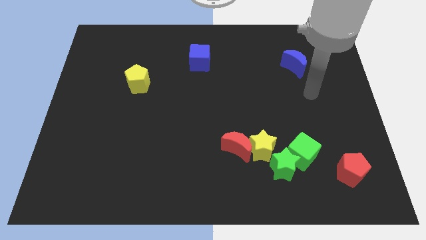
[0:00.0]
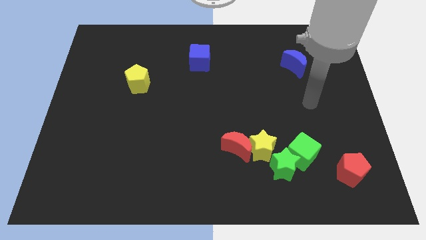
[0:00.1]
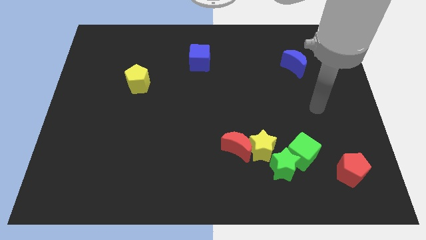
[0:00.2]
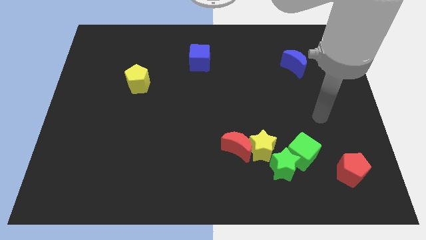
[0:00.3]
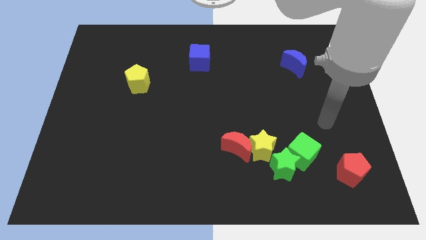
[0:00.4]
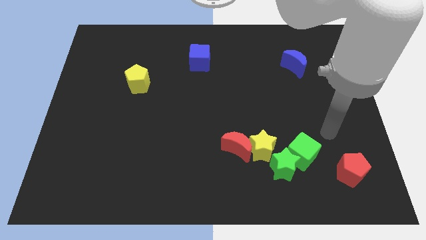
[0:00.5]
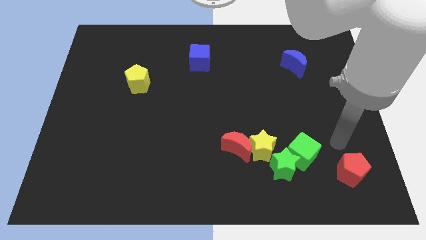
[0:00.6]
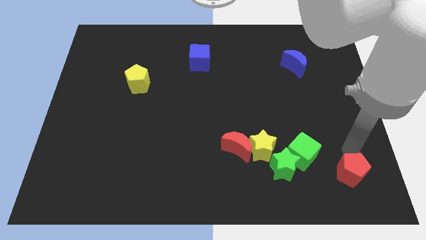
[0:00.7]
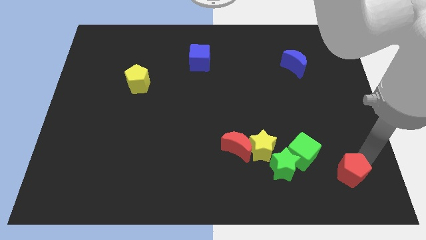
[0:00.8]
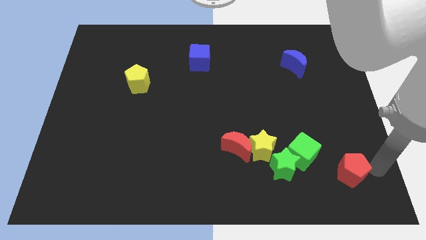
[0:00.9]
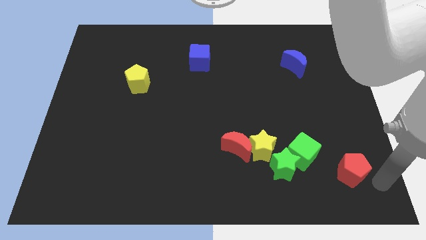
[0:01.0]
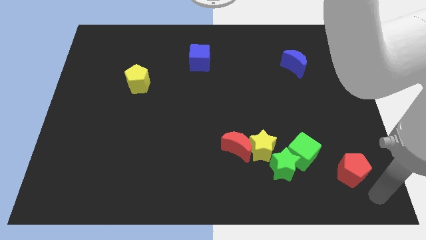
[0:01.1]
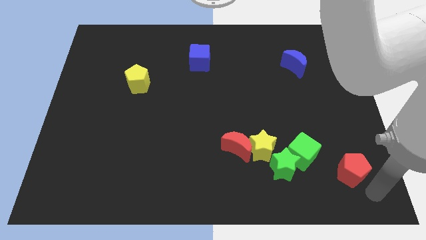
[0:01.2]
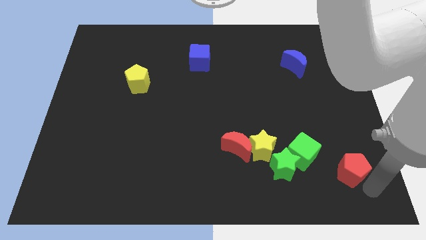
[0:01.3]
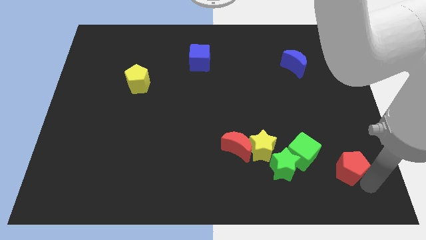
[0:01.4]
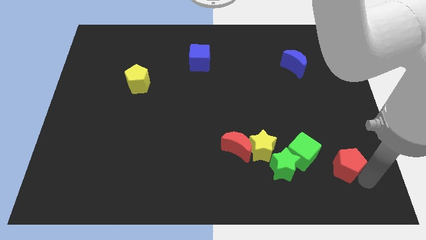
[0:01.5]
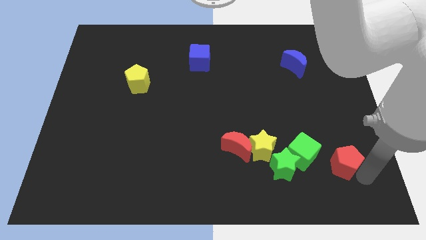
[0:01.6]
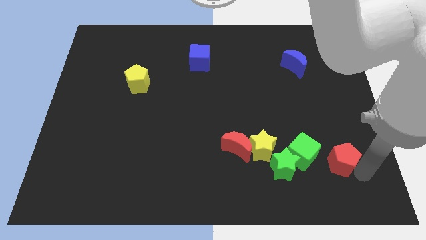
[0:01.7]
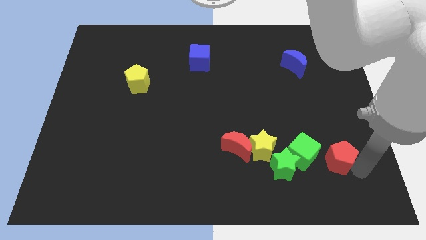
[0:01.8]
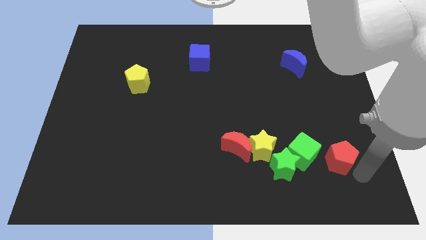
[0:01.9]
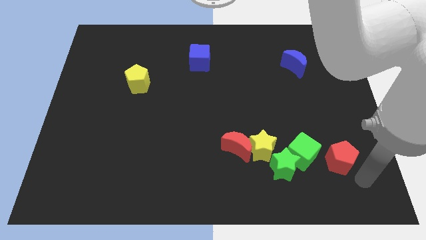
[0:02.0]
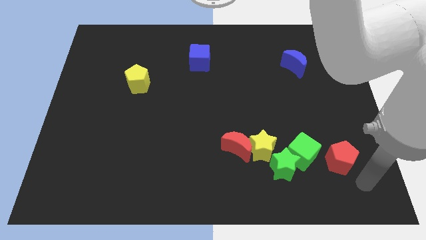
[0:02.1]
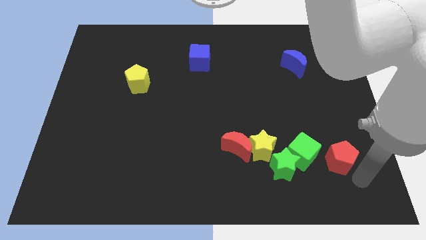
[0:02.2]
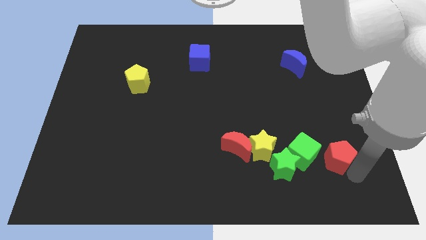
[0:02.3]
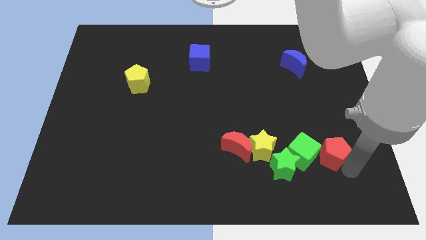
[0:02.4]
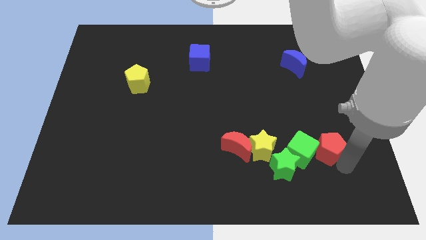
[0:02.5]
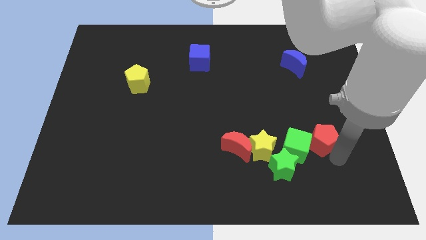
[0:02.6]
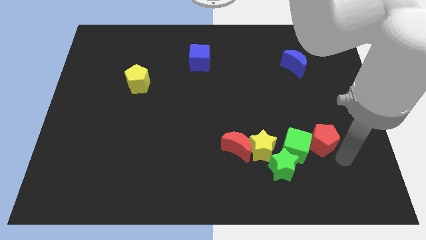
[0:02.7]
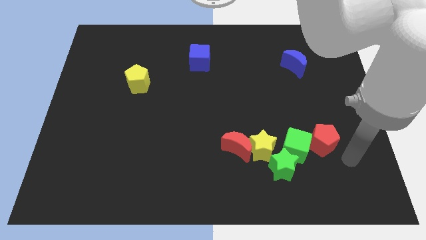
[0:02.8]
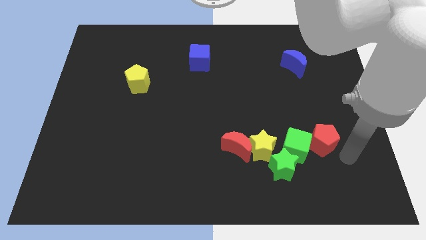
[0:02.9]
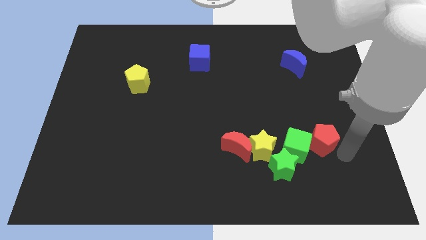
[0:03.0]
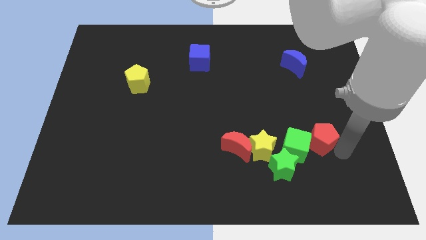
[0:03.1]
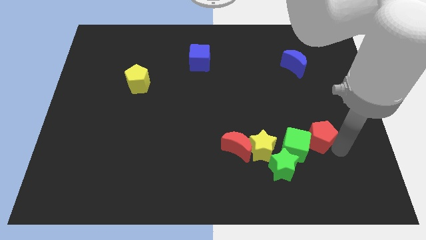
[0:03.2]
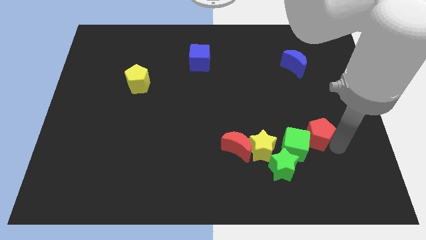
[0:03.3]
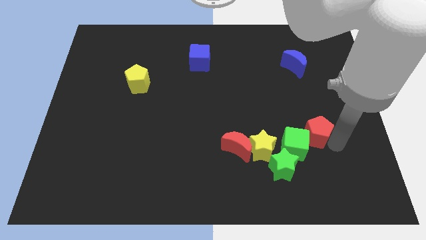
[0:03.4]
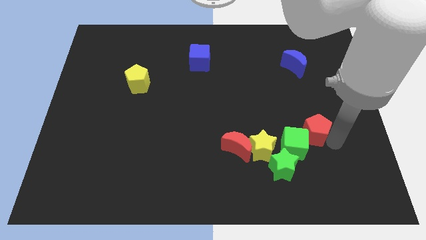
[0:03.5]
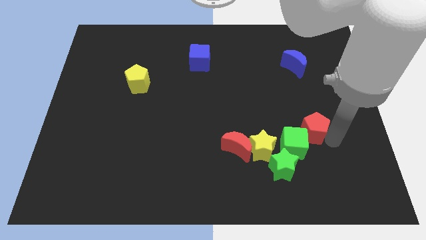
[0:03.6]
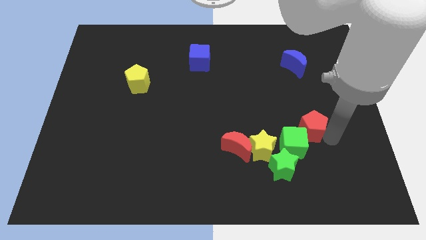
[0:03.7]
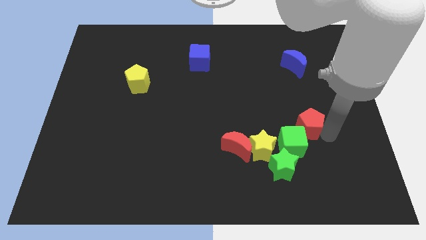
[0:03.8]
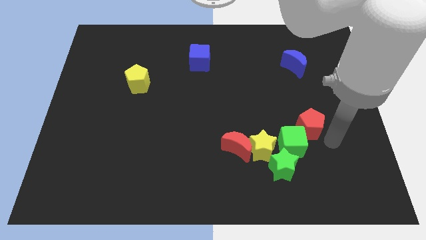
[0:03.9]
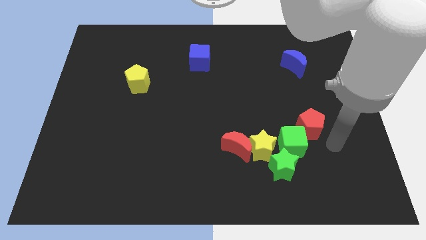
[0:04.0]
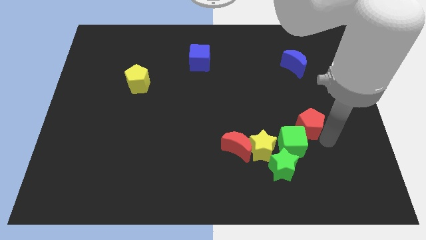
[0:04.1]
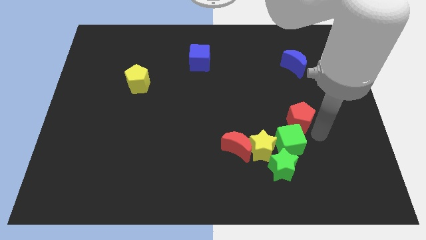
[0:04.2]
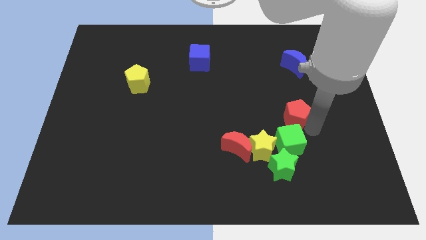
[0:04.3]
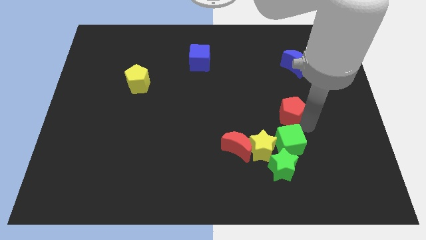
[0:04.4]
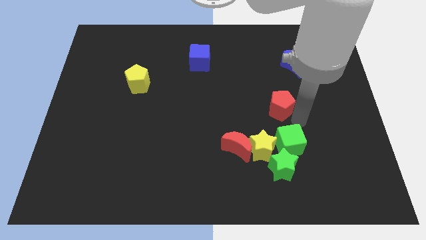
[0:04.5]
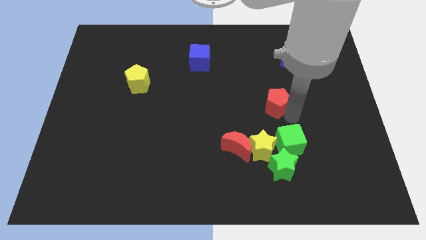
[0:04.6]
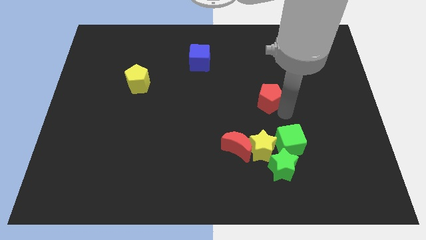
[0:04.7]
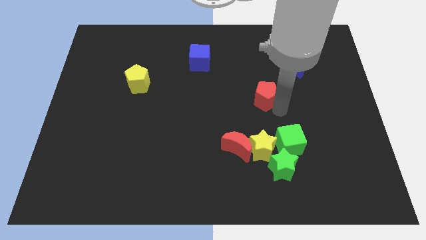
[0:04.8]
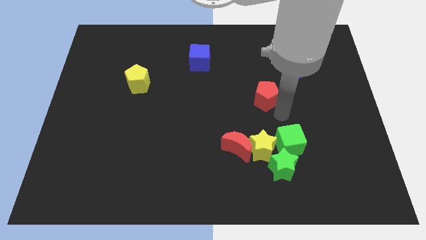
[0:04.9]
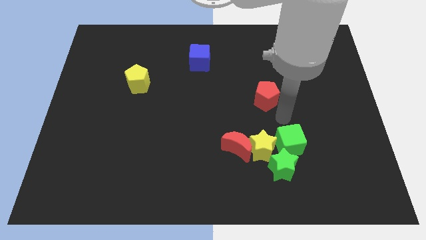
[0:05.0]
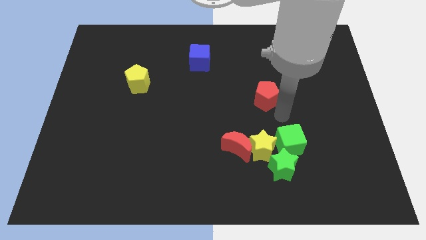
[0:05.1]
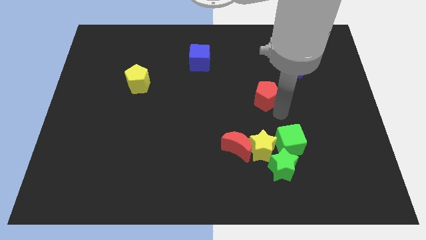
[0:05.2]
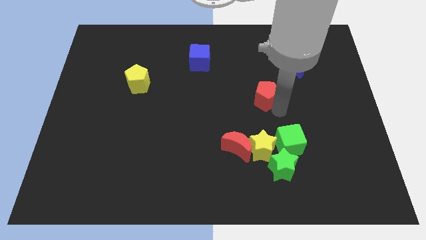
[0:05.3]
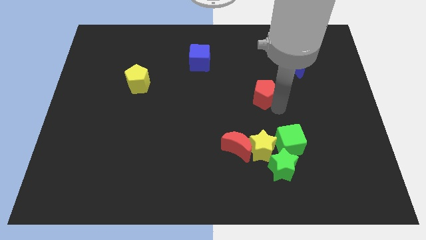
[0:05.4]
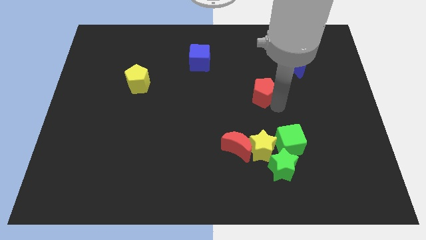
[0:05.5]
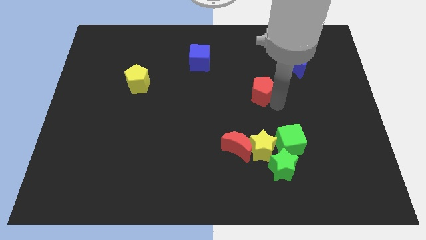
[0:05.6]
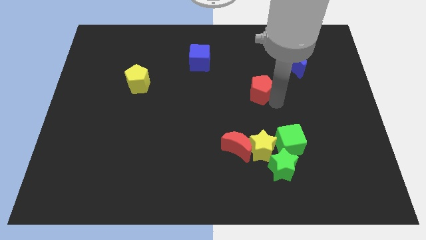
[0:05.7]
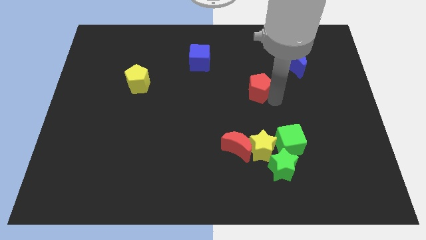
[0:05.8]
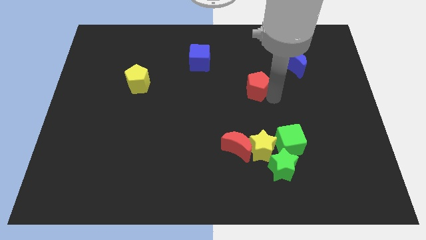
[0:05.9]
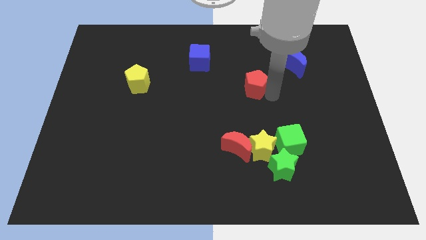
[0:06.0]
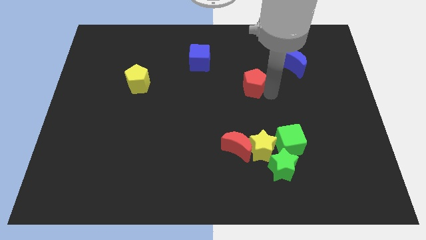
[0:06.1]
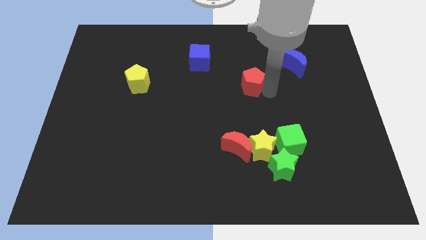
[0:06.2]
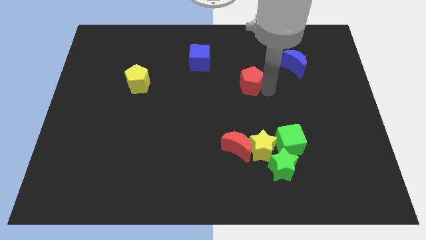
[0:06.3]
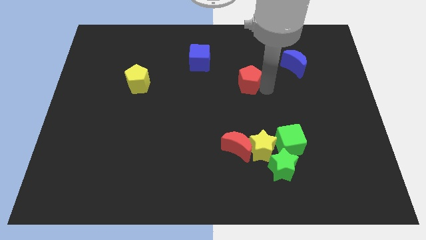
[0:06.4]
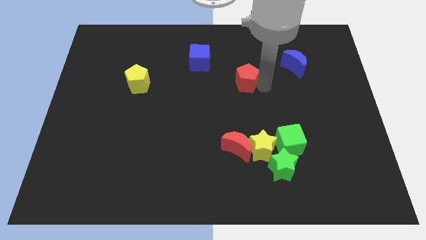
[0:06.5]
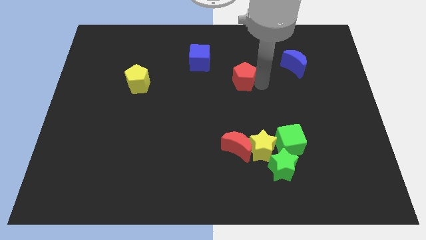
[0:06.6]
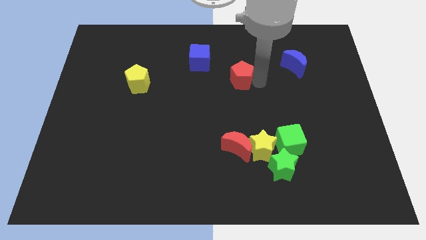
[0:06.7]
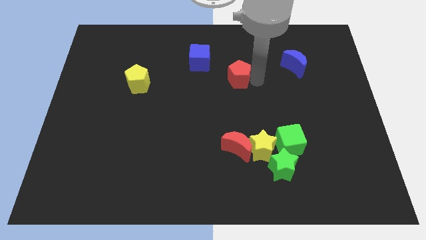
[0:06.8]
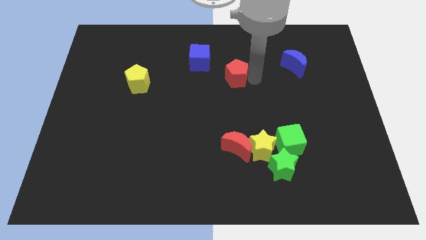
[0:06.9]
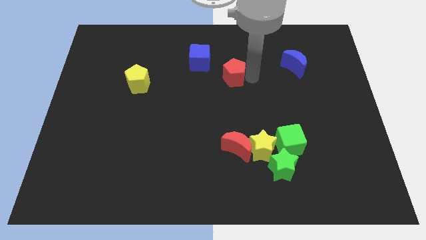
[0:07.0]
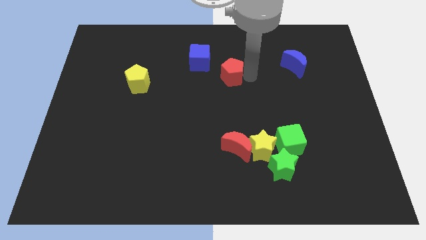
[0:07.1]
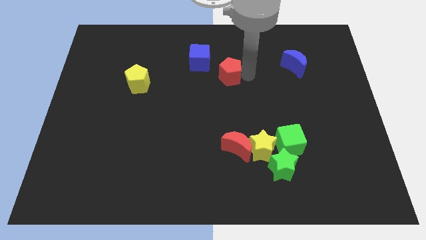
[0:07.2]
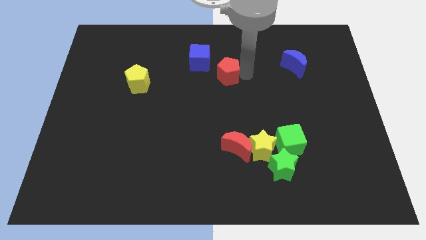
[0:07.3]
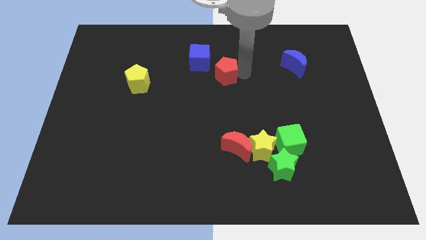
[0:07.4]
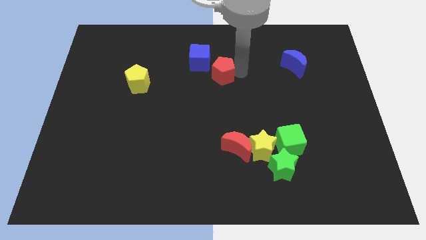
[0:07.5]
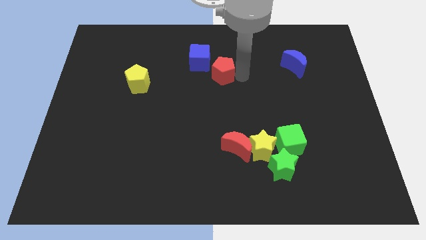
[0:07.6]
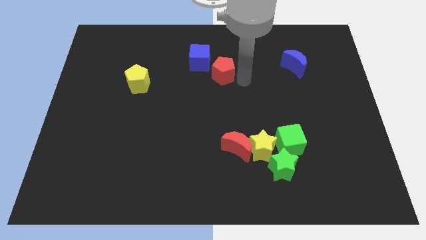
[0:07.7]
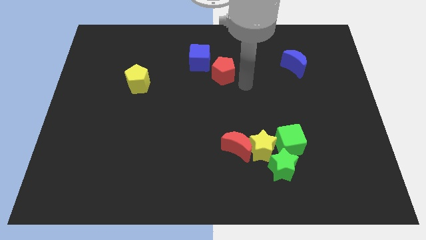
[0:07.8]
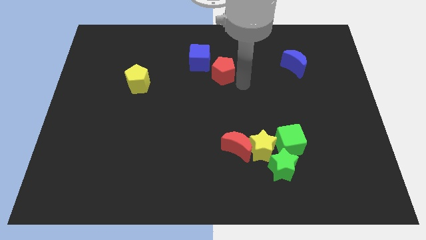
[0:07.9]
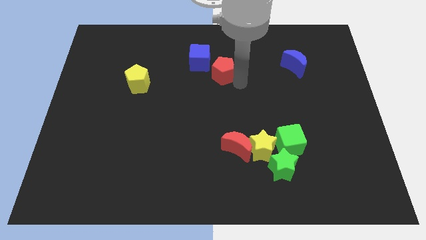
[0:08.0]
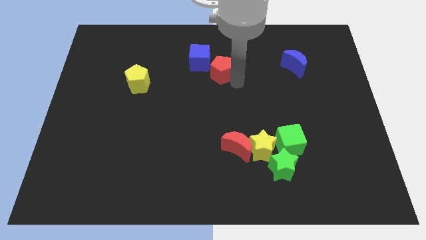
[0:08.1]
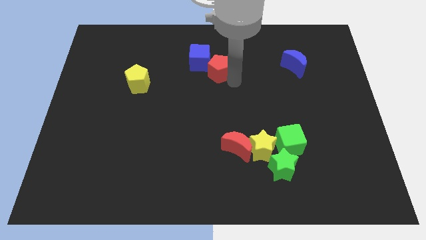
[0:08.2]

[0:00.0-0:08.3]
put the red pentagon to the blue cube
